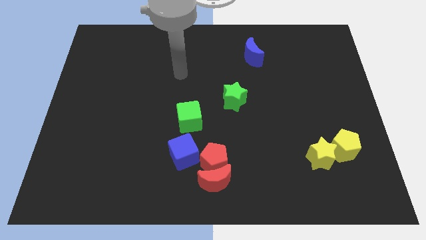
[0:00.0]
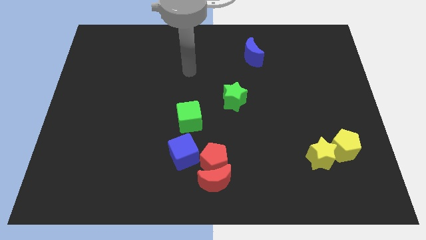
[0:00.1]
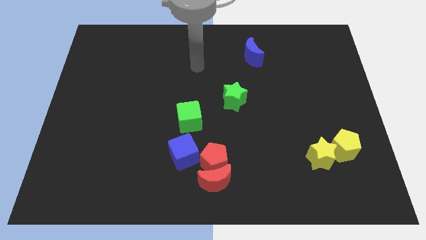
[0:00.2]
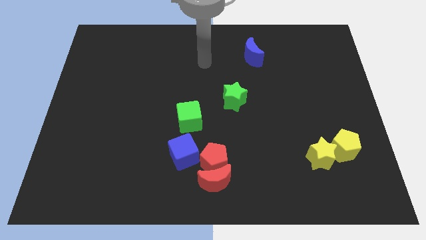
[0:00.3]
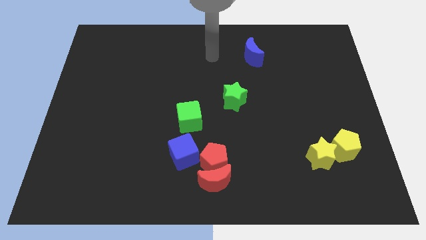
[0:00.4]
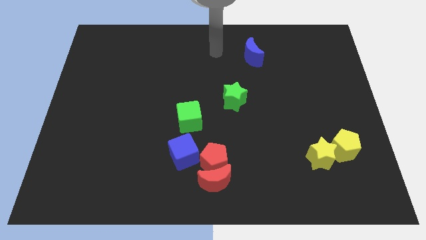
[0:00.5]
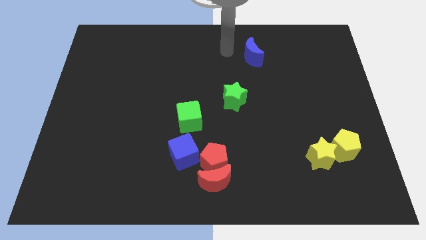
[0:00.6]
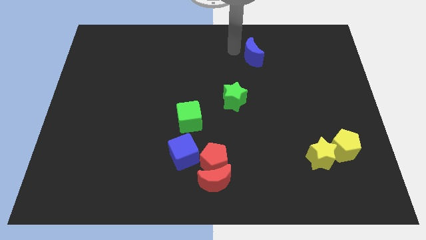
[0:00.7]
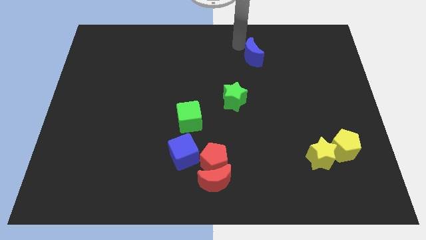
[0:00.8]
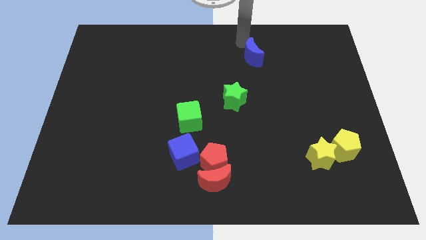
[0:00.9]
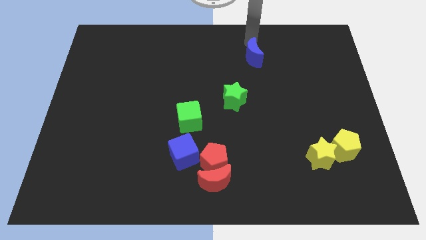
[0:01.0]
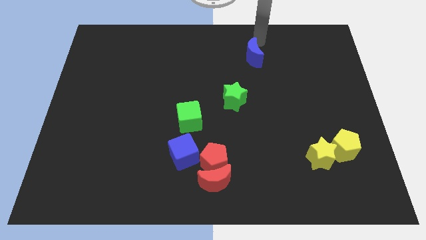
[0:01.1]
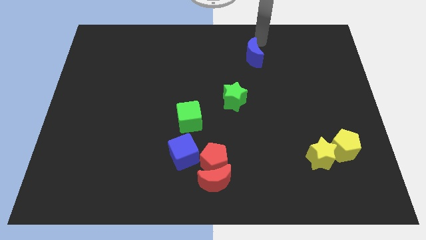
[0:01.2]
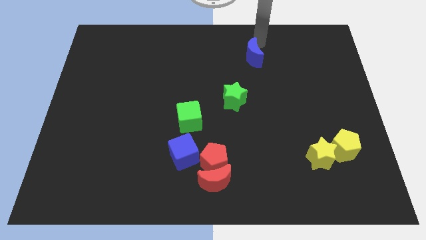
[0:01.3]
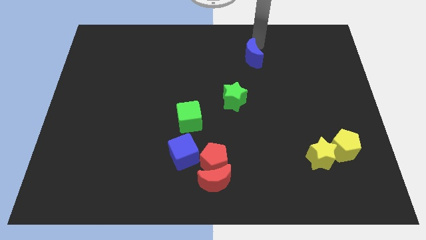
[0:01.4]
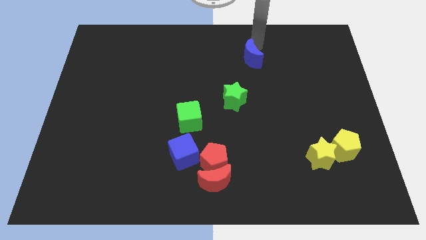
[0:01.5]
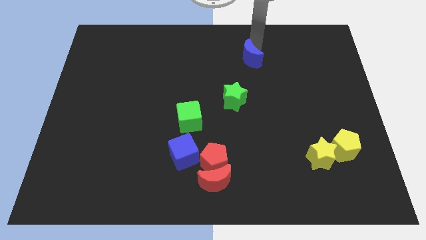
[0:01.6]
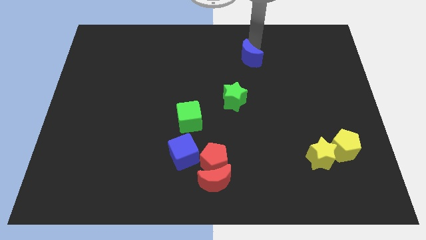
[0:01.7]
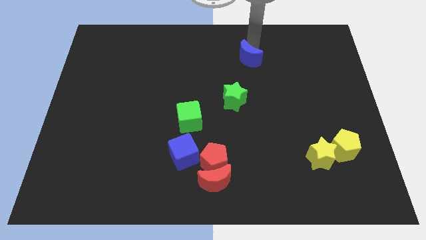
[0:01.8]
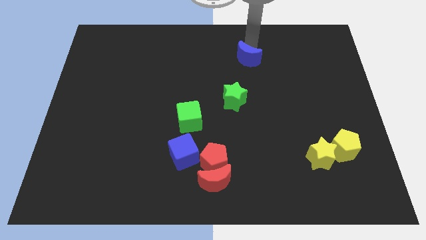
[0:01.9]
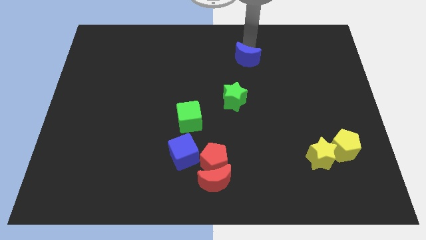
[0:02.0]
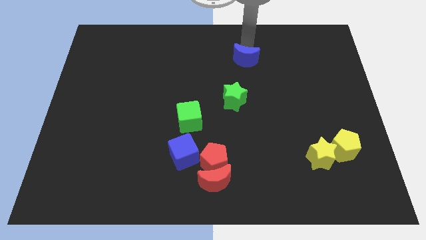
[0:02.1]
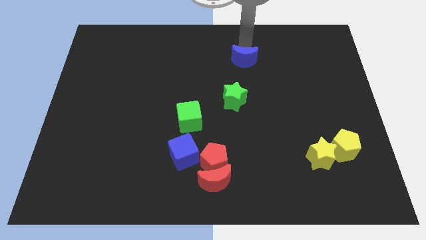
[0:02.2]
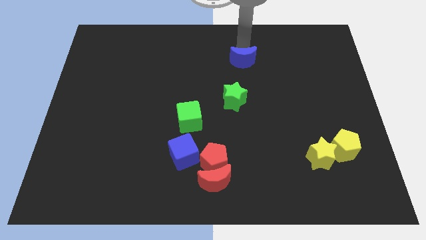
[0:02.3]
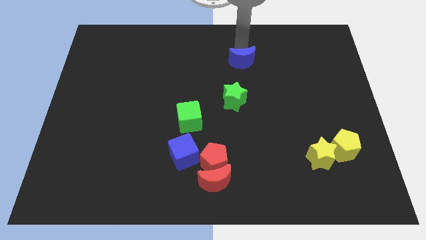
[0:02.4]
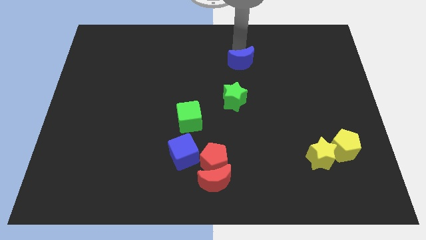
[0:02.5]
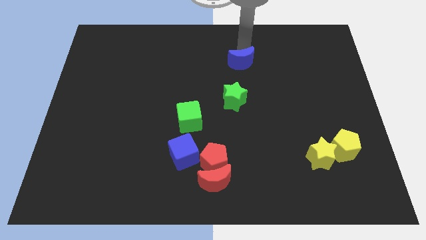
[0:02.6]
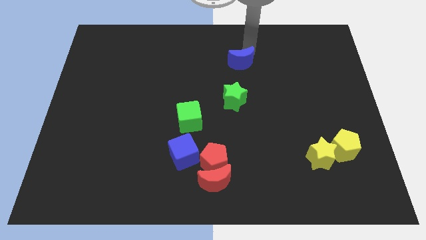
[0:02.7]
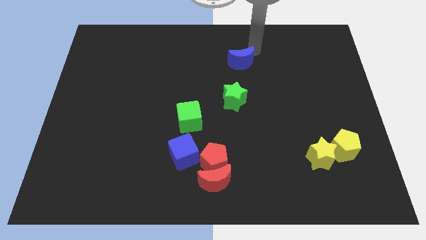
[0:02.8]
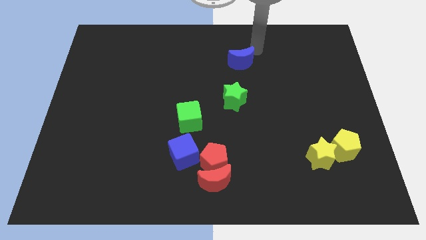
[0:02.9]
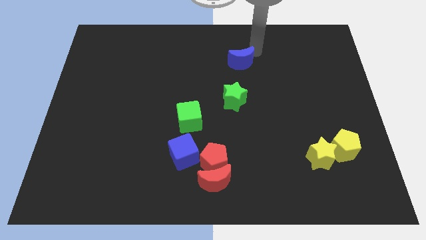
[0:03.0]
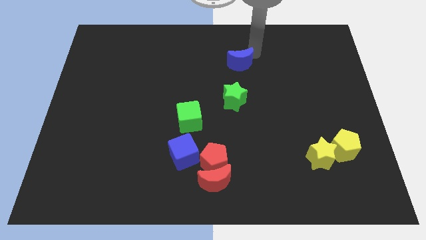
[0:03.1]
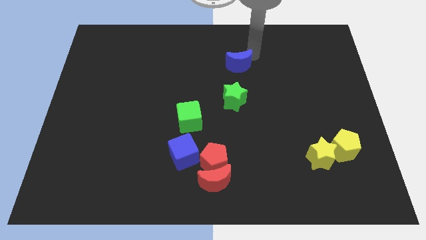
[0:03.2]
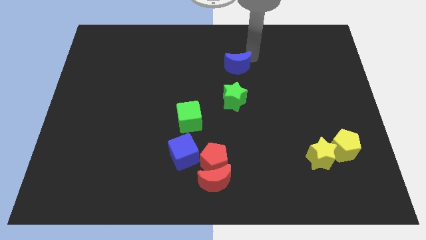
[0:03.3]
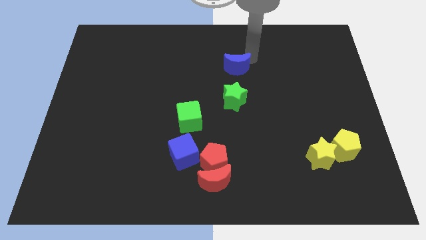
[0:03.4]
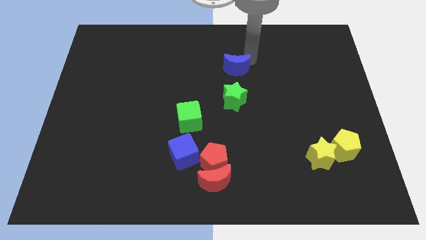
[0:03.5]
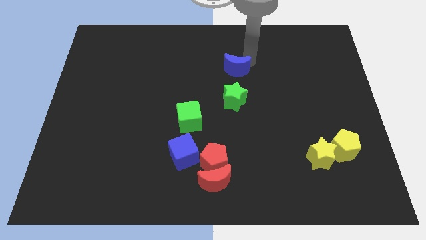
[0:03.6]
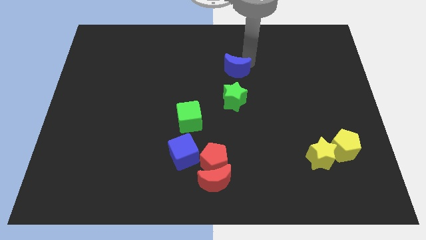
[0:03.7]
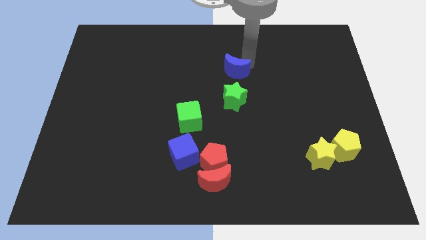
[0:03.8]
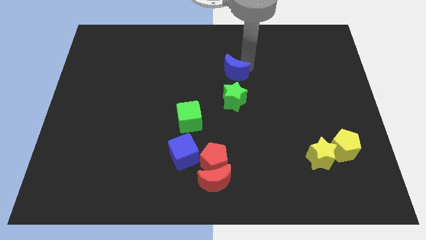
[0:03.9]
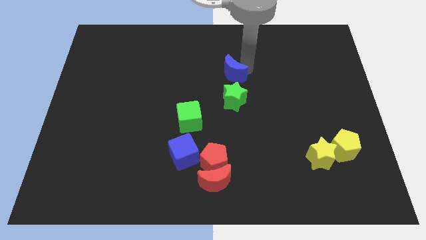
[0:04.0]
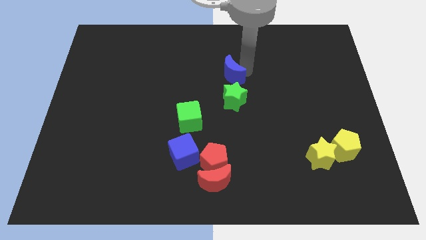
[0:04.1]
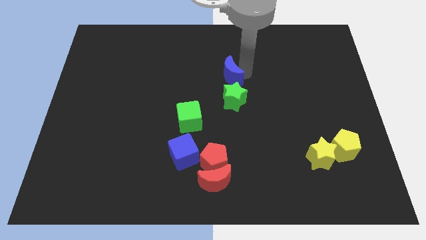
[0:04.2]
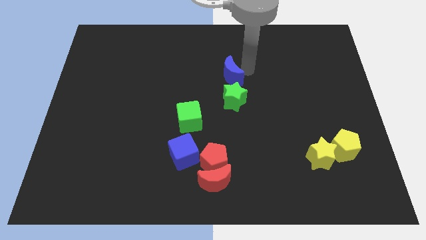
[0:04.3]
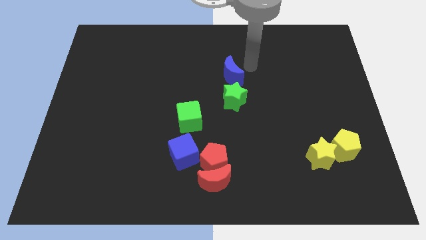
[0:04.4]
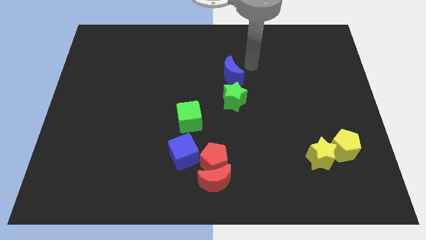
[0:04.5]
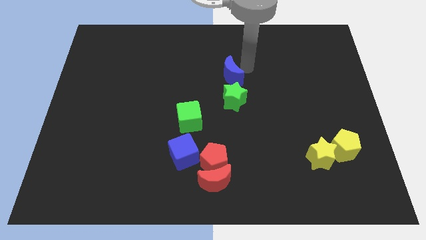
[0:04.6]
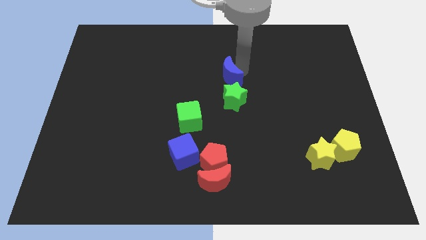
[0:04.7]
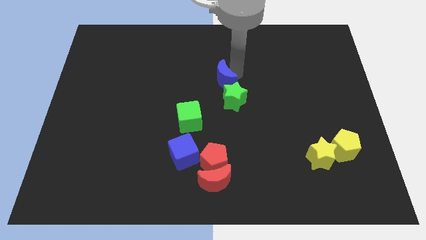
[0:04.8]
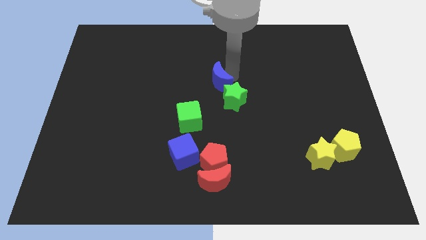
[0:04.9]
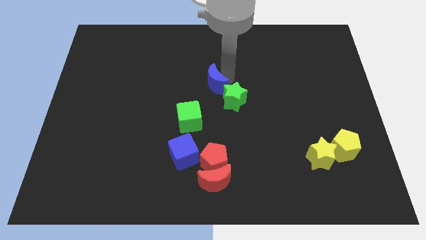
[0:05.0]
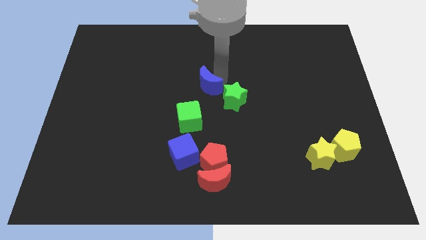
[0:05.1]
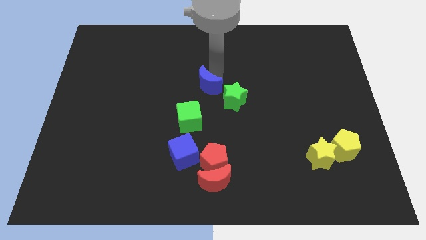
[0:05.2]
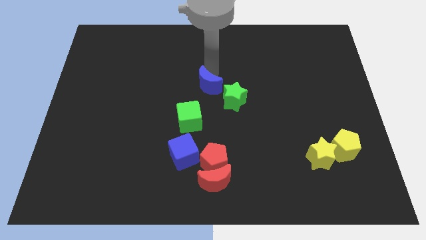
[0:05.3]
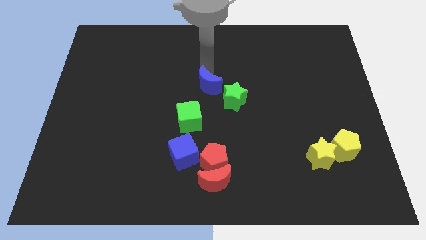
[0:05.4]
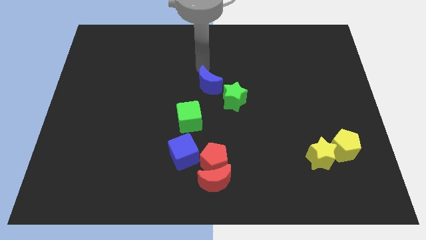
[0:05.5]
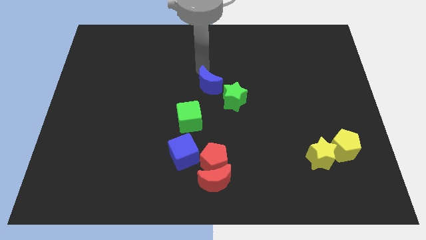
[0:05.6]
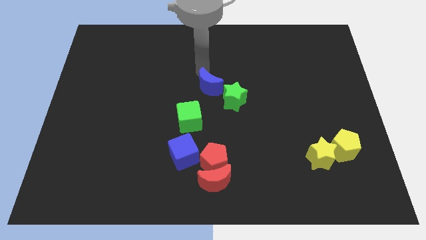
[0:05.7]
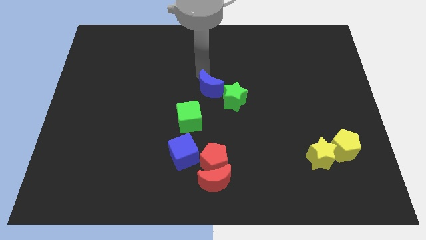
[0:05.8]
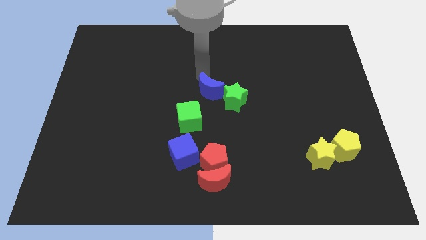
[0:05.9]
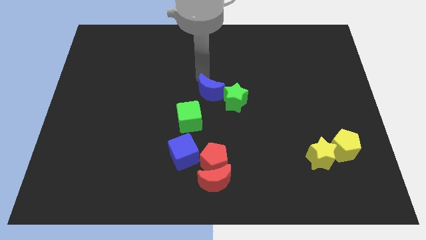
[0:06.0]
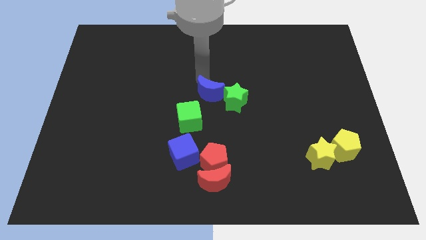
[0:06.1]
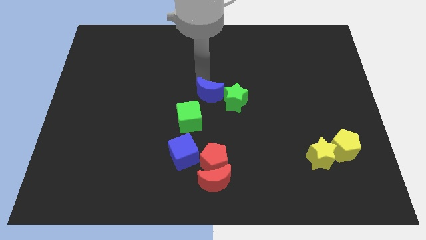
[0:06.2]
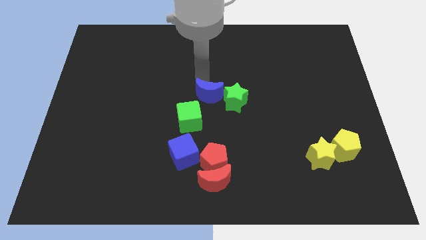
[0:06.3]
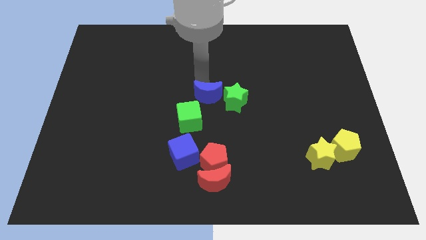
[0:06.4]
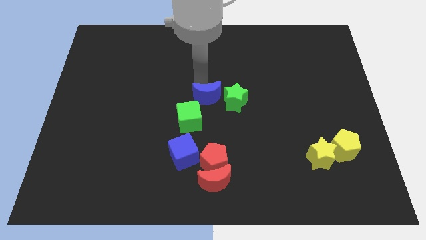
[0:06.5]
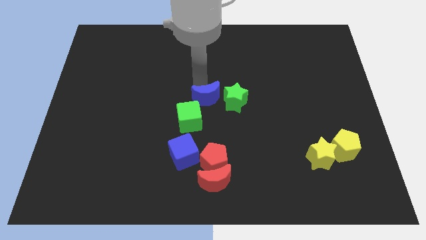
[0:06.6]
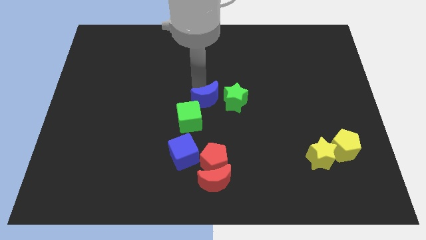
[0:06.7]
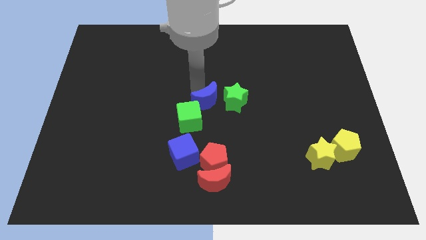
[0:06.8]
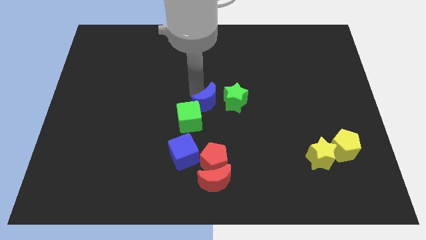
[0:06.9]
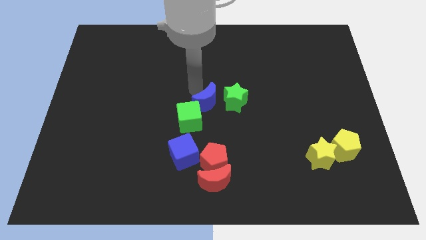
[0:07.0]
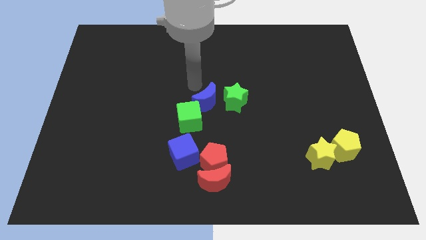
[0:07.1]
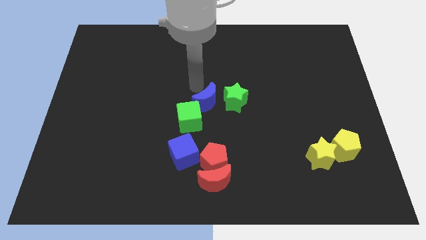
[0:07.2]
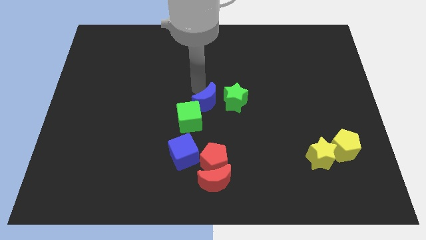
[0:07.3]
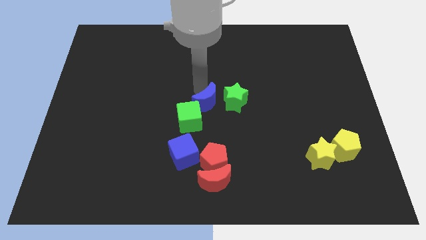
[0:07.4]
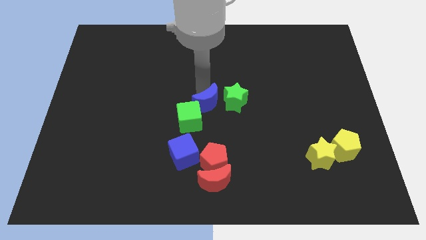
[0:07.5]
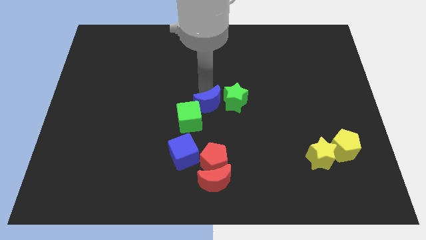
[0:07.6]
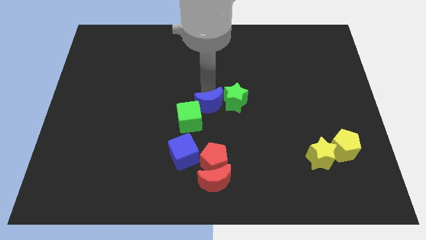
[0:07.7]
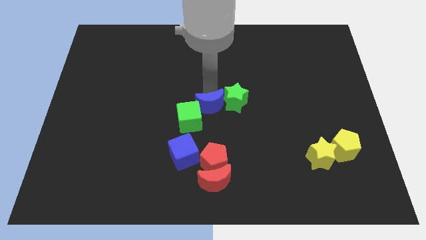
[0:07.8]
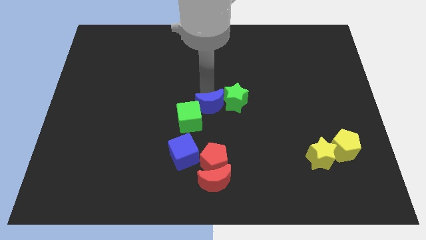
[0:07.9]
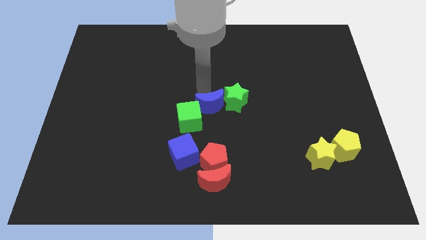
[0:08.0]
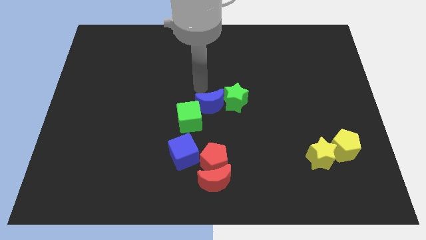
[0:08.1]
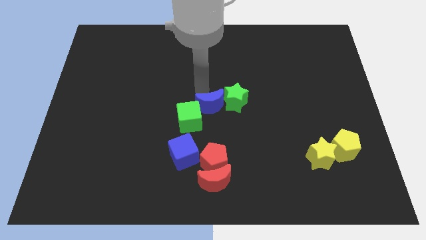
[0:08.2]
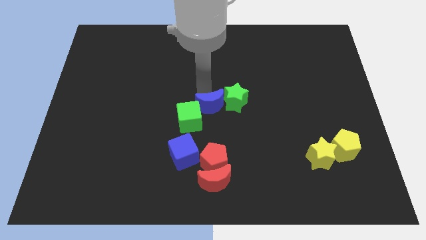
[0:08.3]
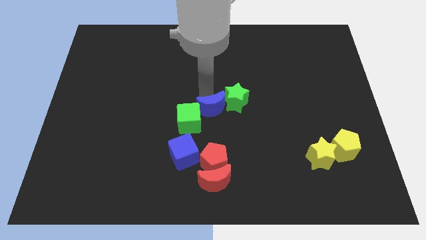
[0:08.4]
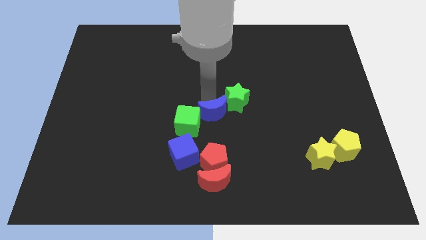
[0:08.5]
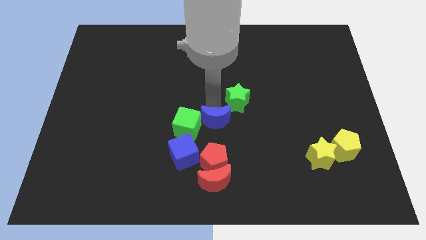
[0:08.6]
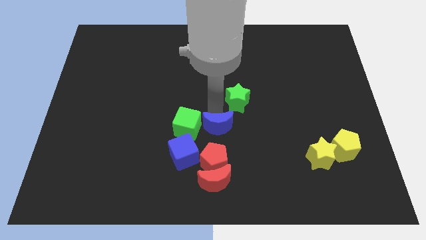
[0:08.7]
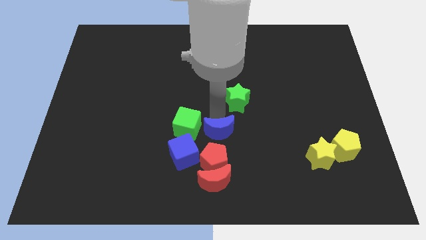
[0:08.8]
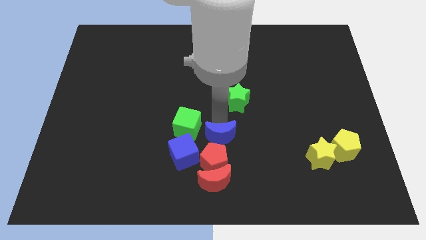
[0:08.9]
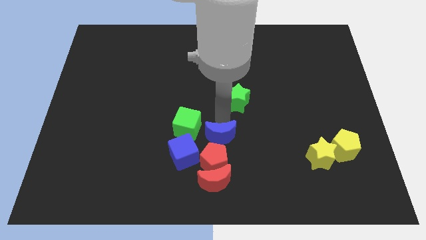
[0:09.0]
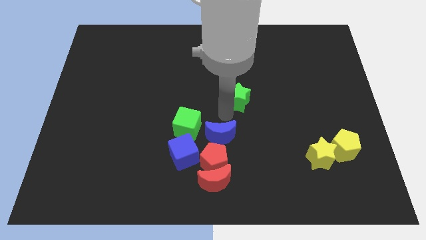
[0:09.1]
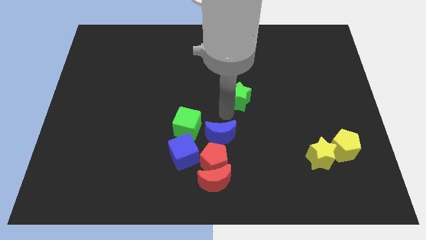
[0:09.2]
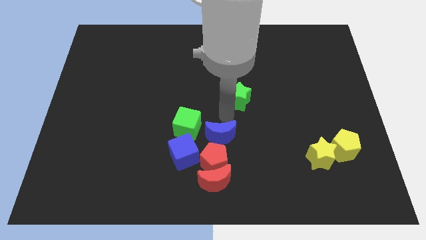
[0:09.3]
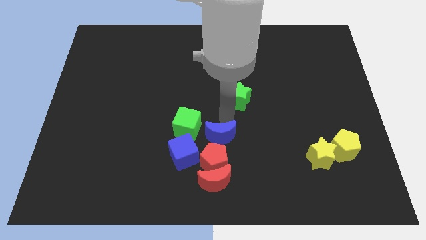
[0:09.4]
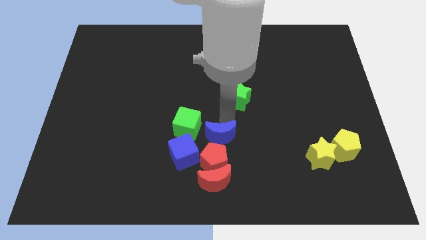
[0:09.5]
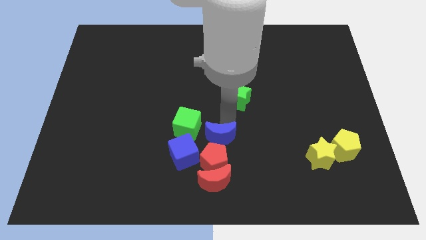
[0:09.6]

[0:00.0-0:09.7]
put the blue moon close to the red pentagon
